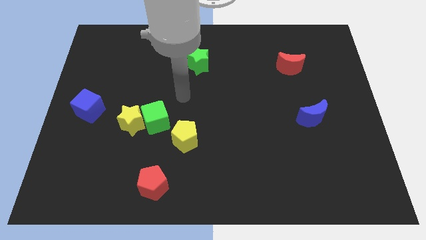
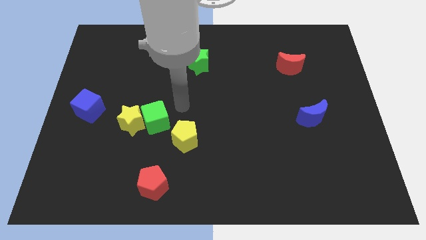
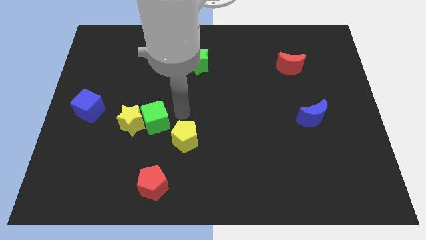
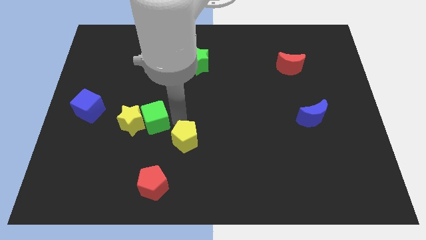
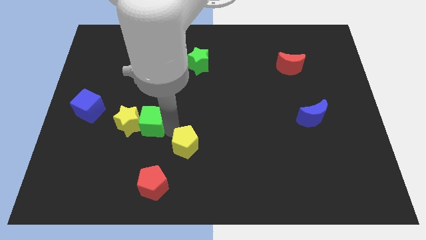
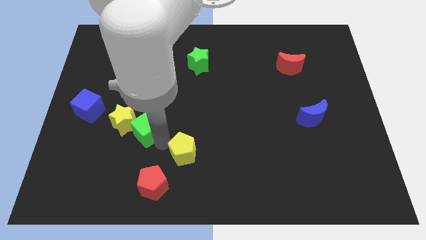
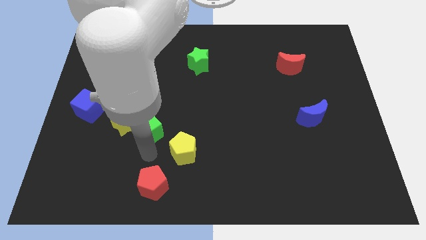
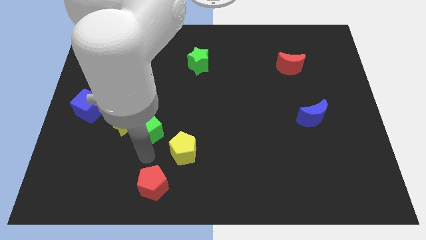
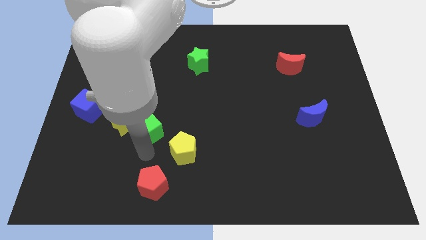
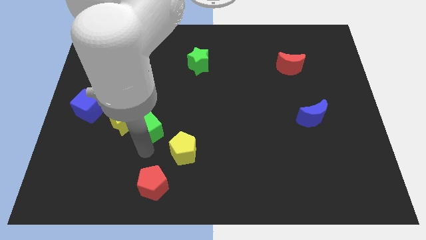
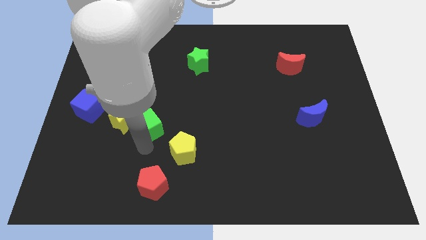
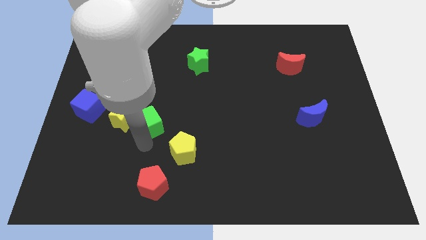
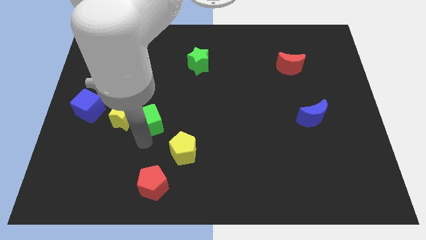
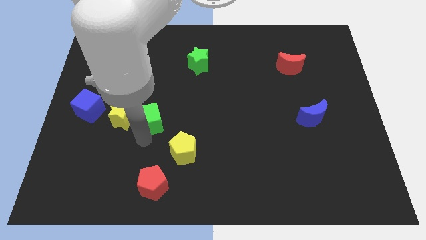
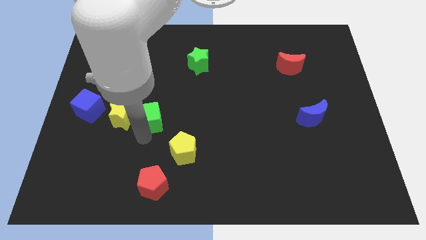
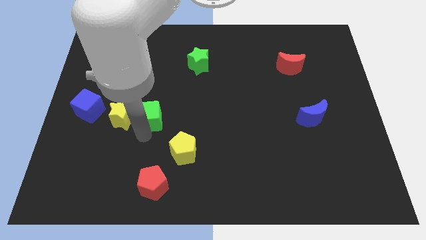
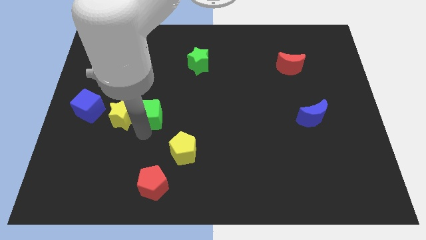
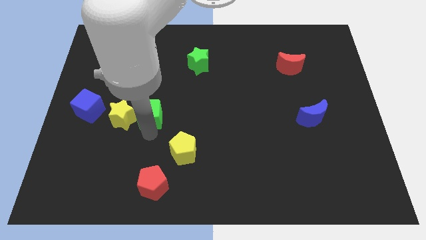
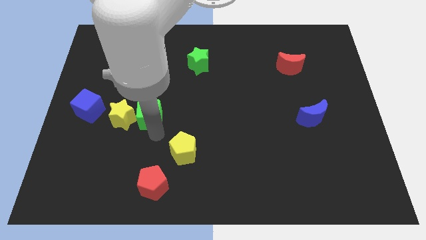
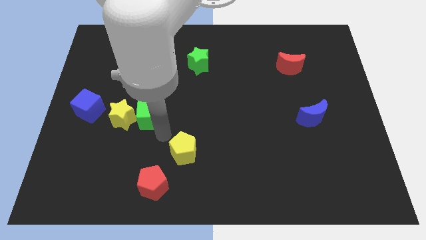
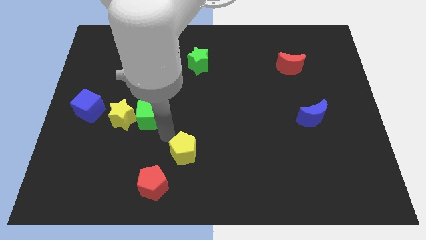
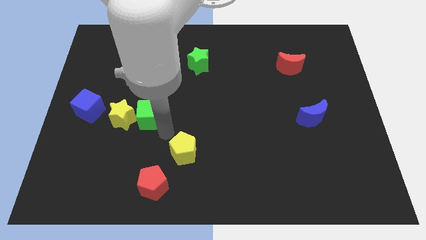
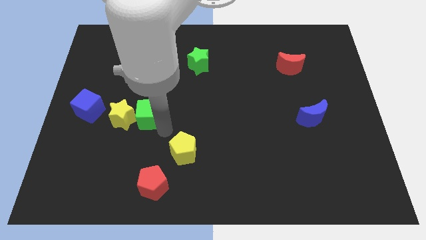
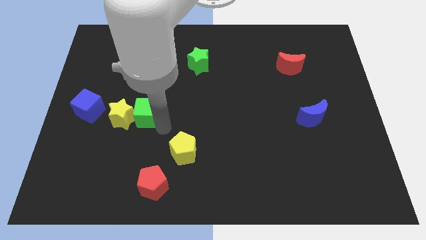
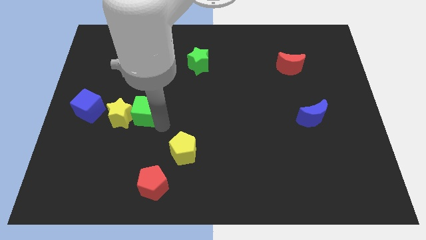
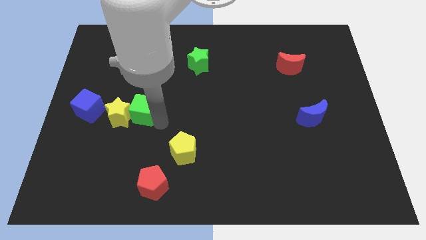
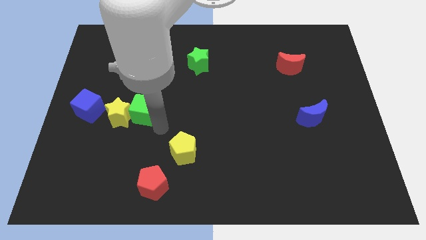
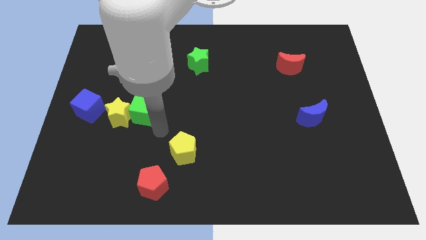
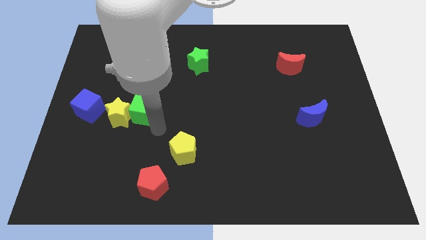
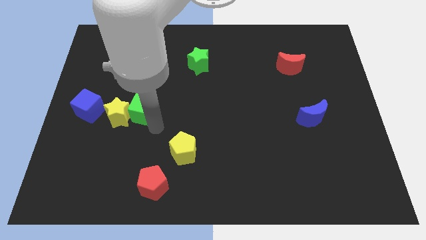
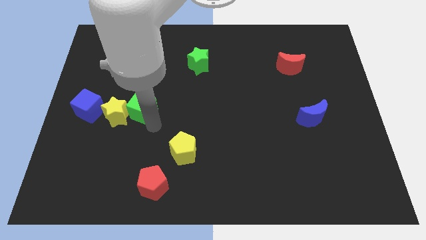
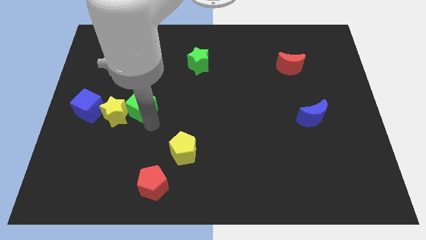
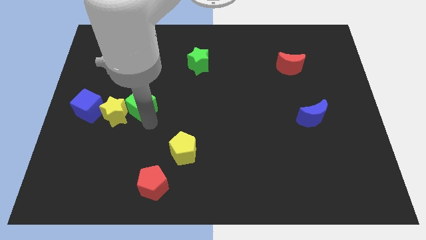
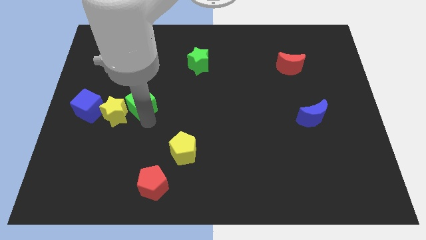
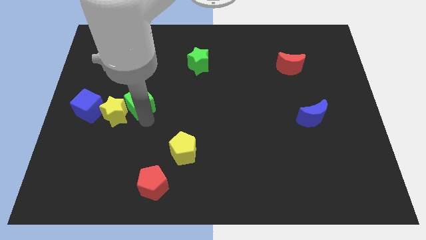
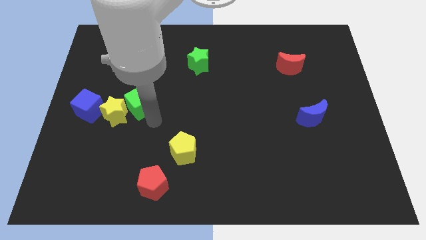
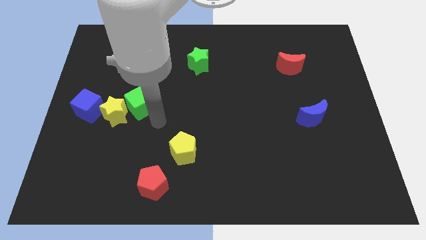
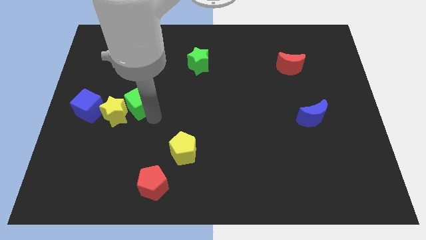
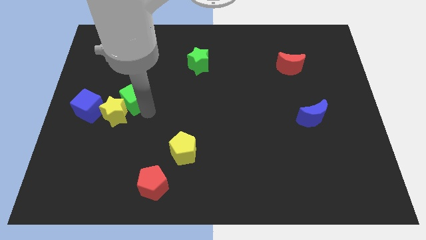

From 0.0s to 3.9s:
slide the green cube somewhat diagonally up and to the left

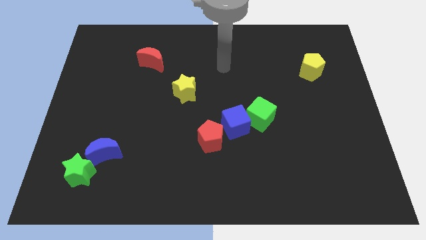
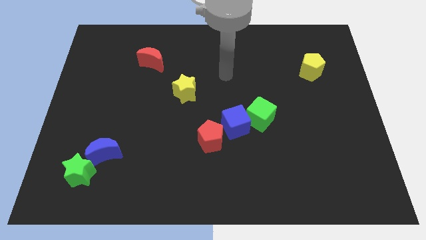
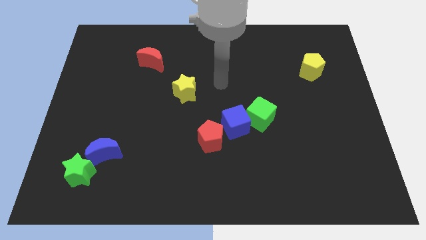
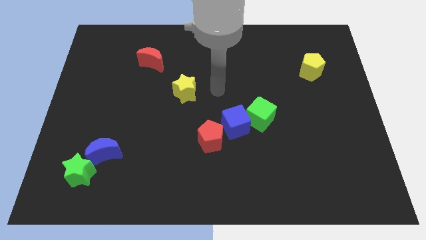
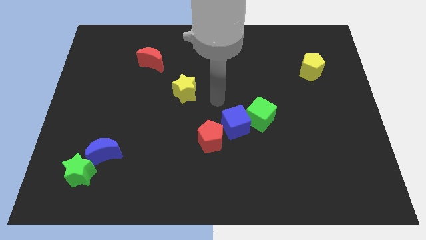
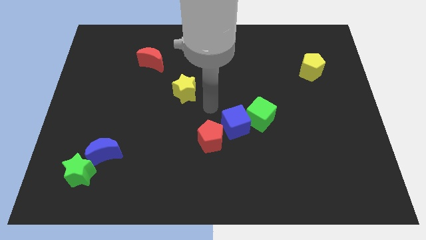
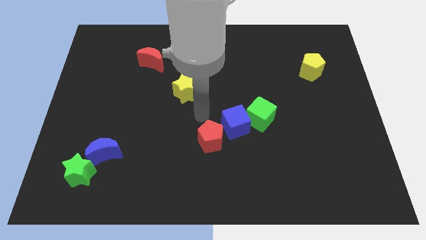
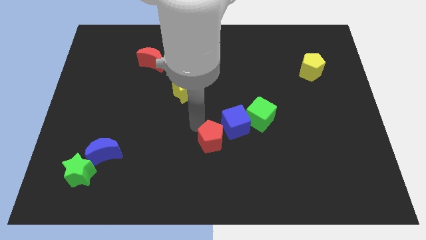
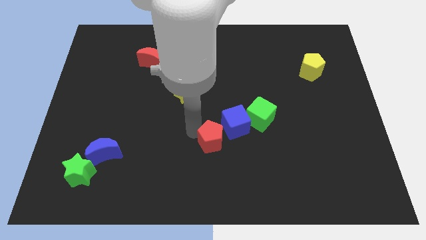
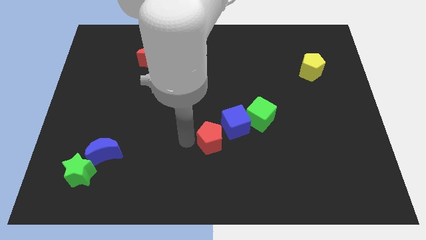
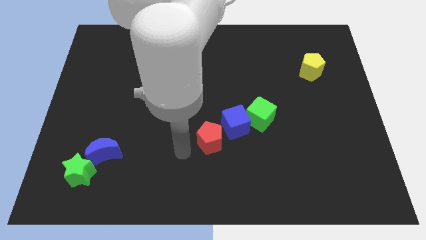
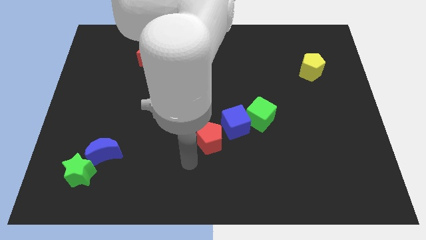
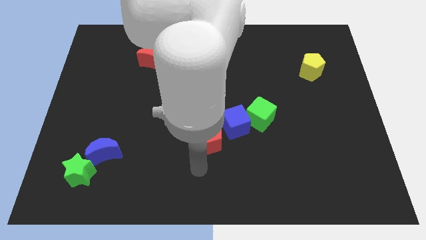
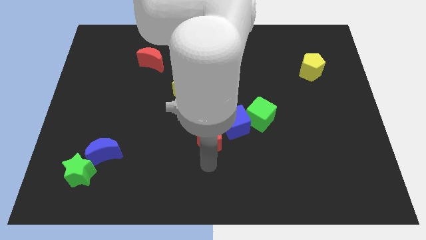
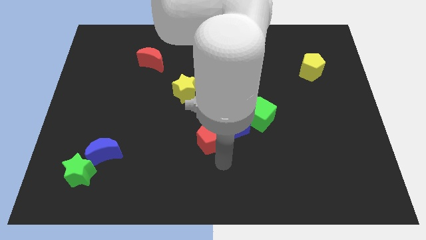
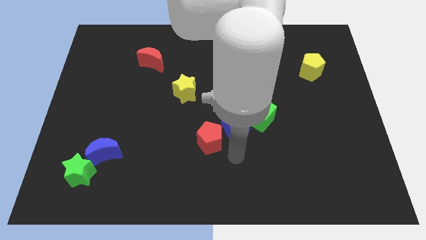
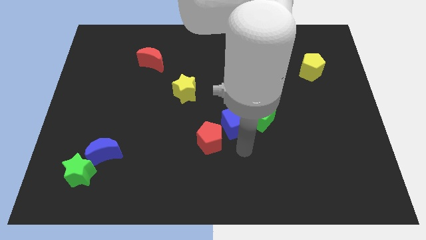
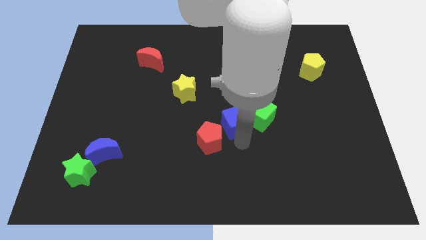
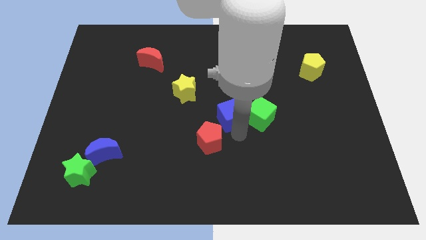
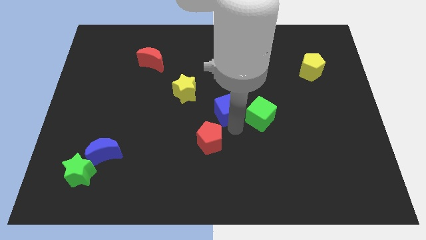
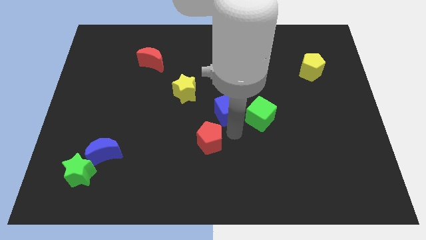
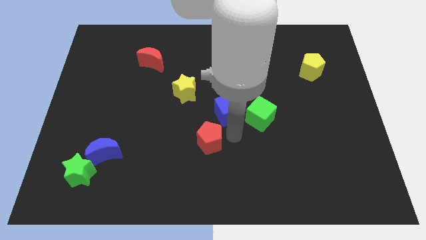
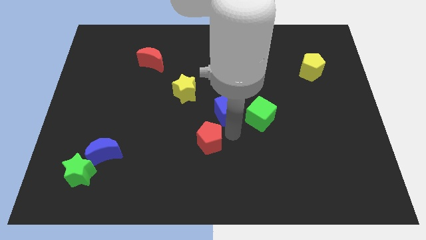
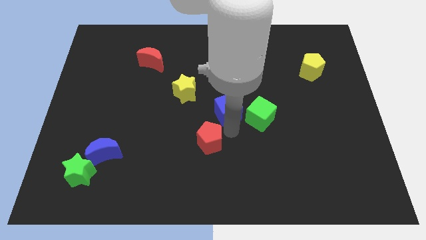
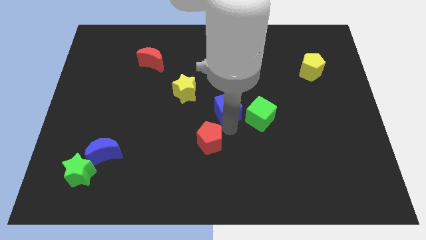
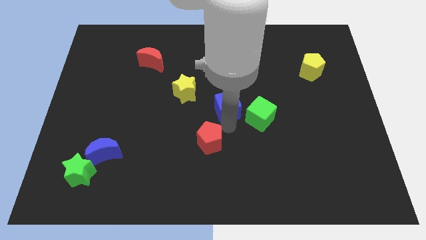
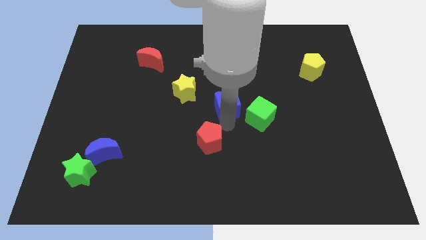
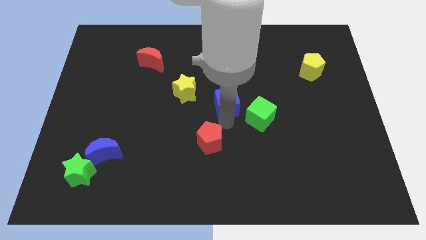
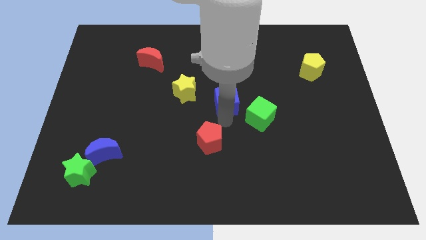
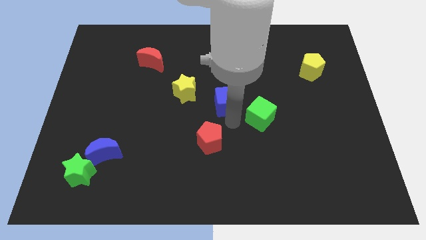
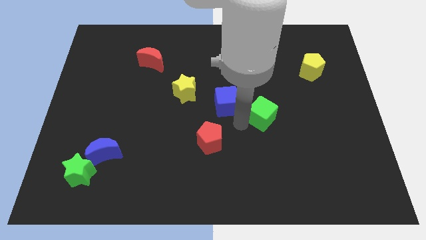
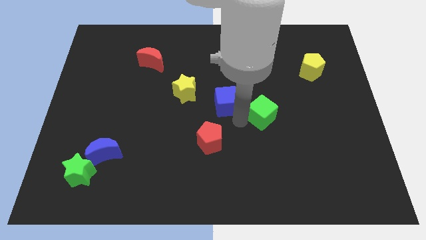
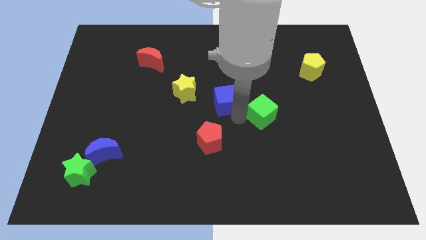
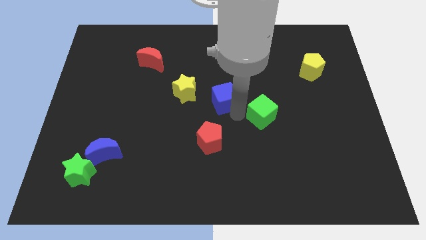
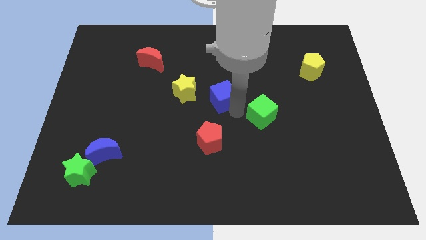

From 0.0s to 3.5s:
push the blue cube a little upwards and to the left

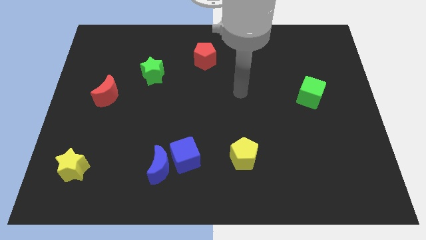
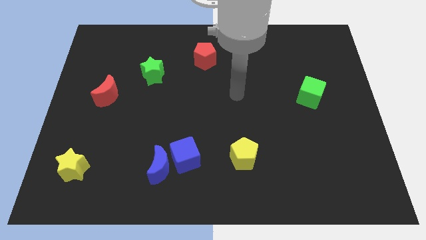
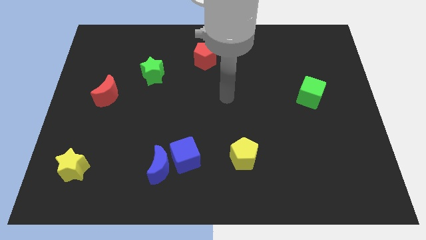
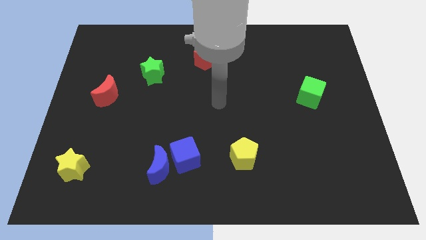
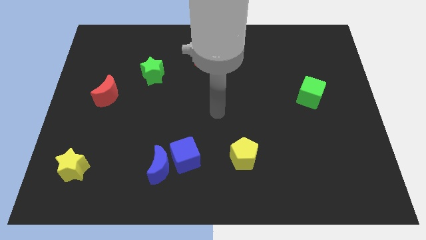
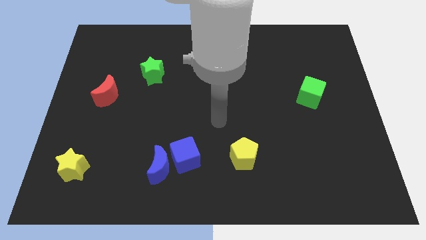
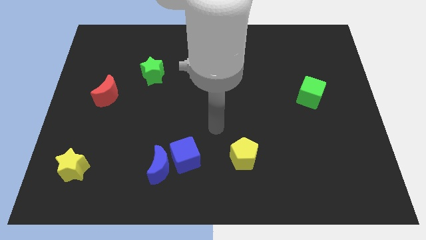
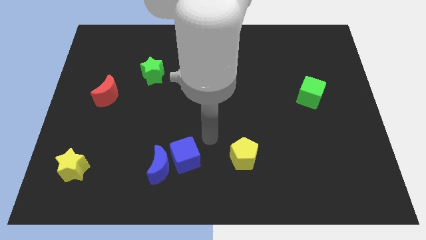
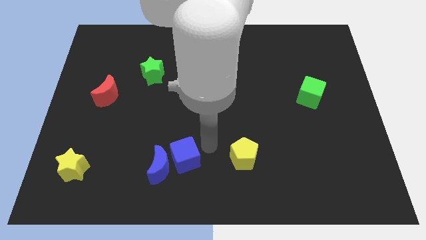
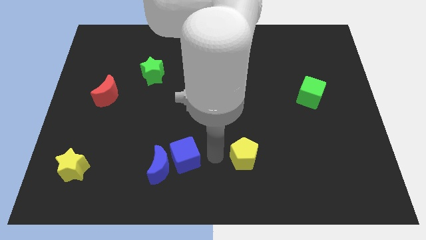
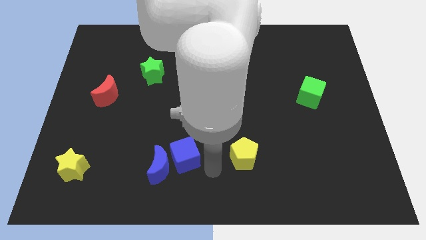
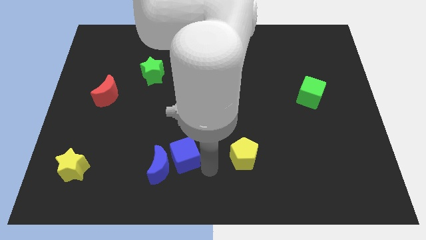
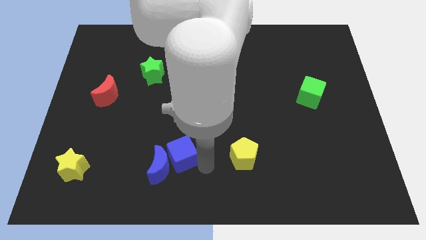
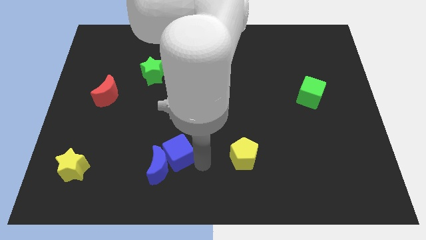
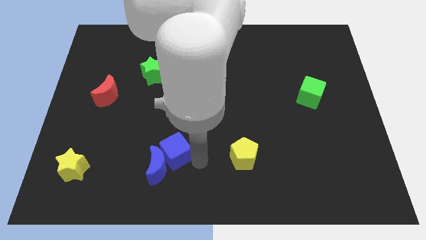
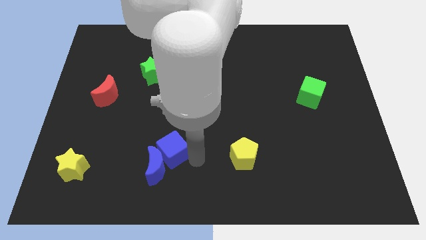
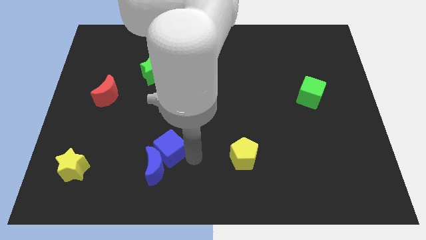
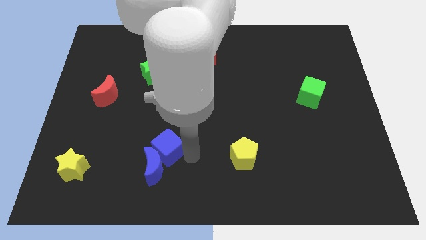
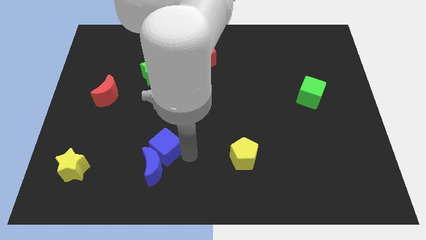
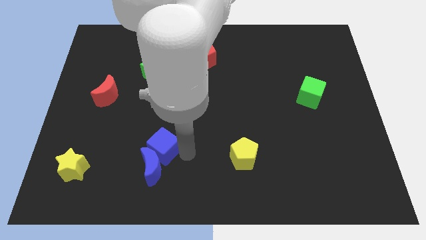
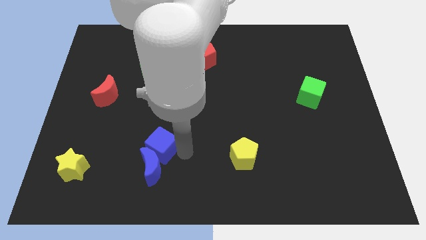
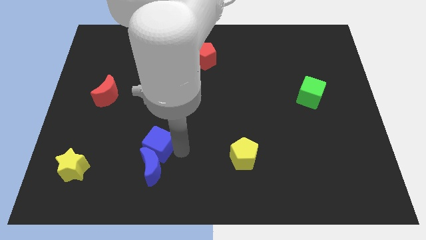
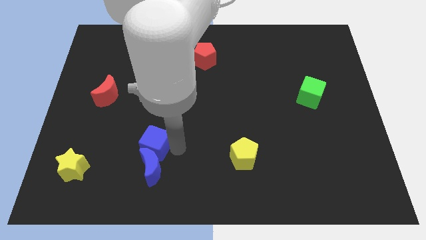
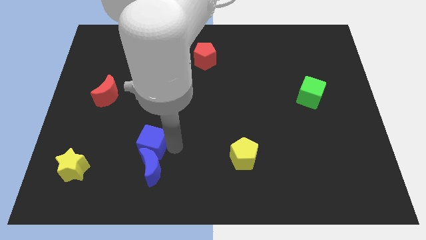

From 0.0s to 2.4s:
slide the blue cube to the left a little
